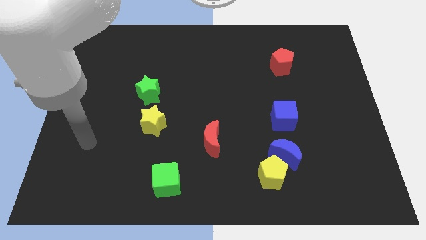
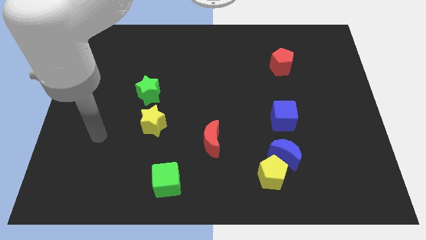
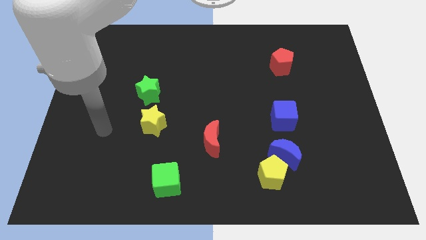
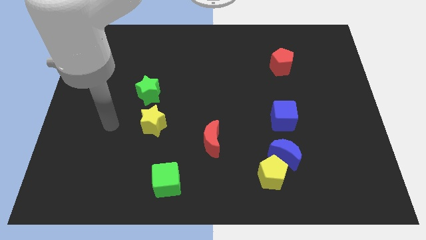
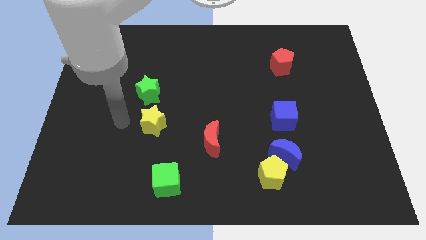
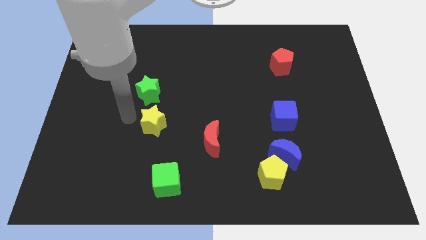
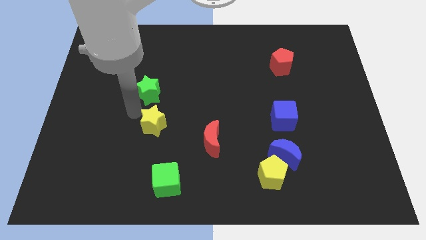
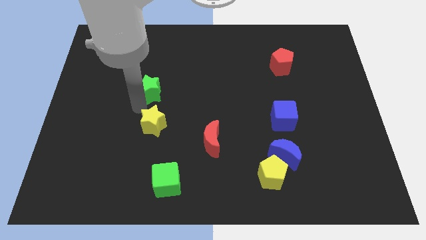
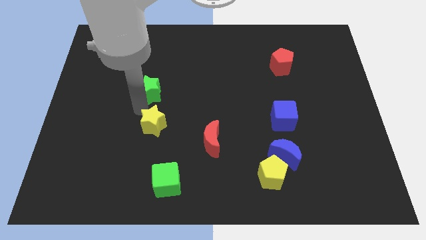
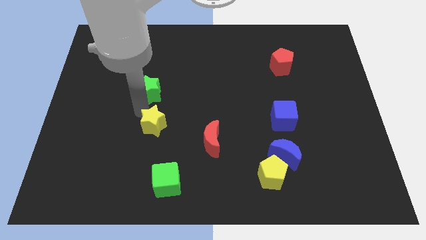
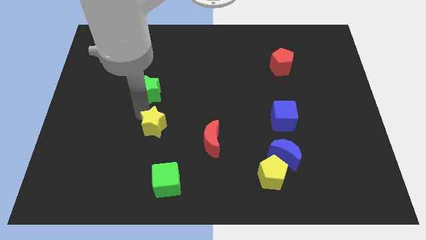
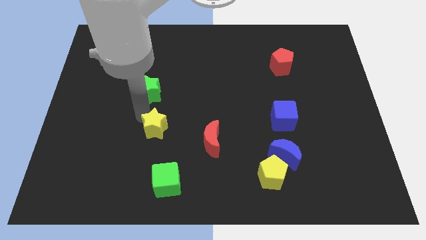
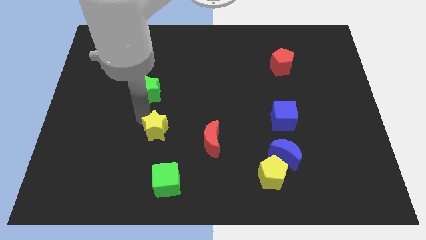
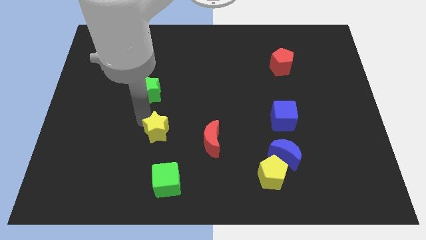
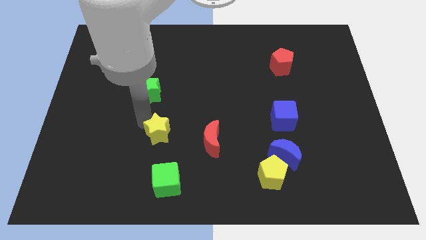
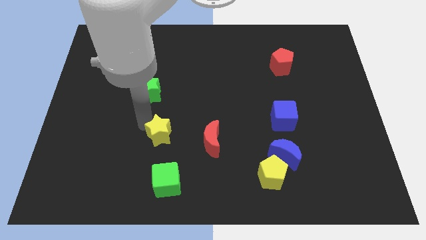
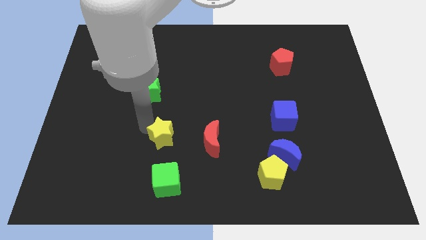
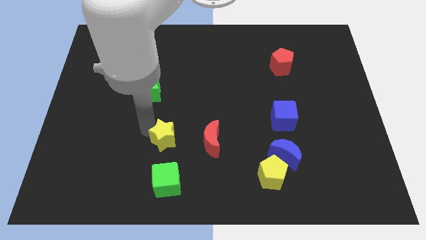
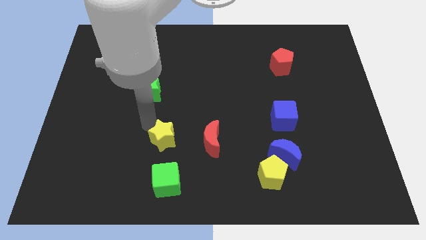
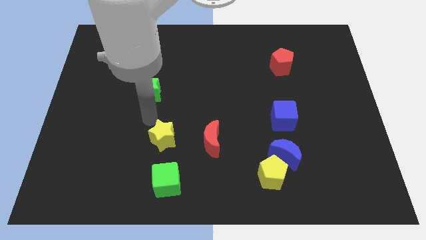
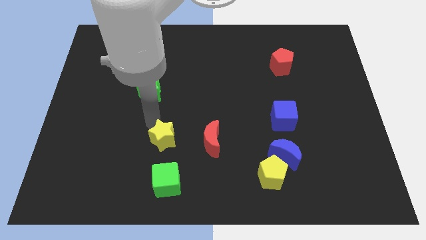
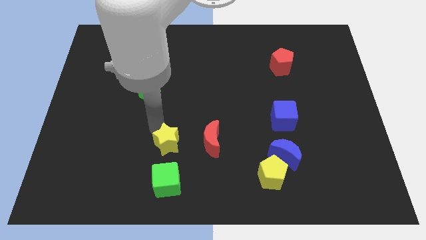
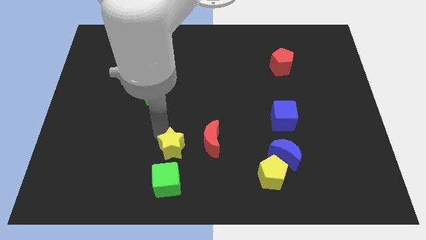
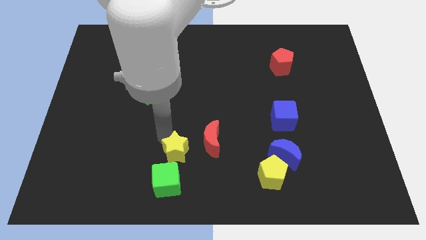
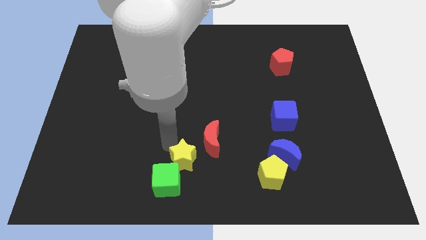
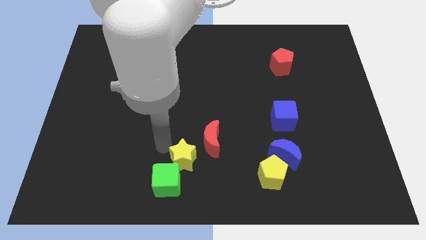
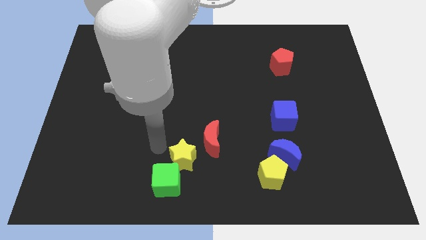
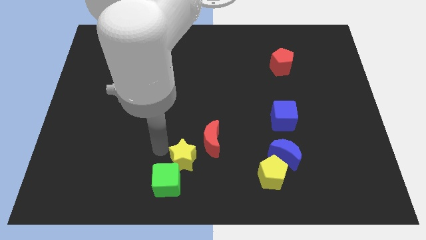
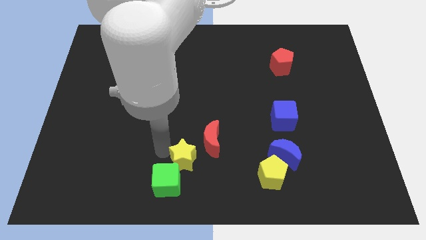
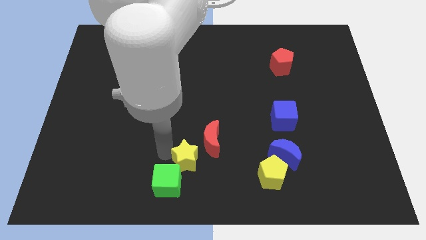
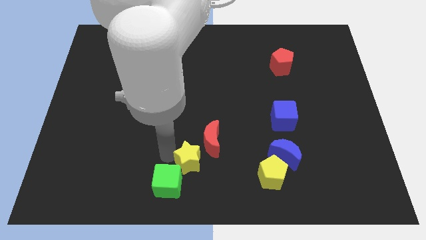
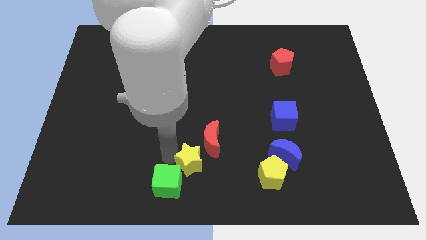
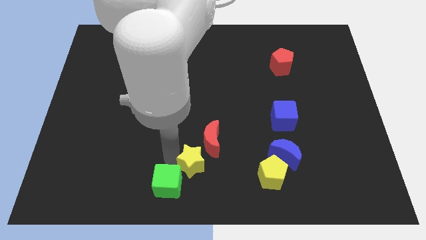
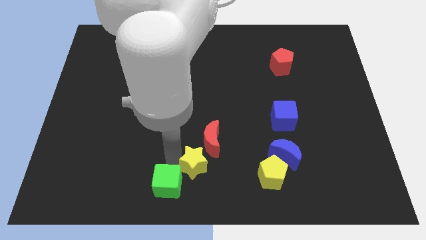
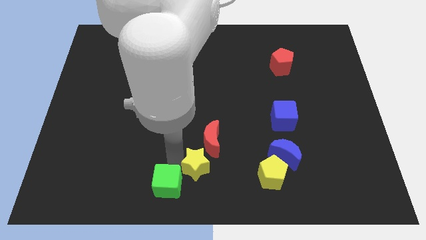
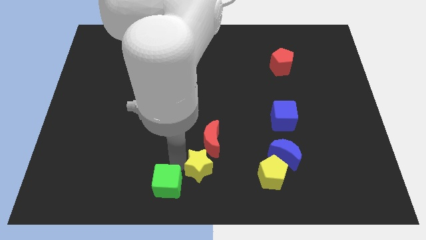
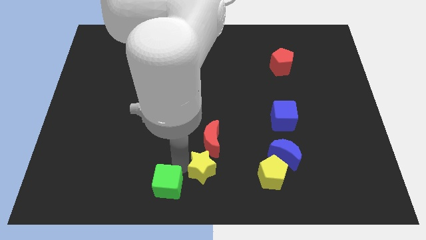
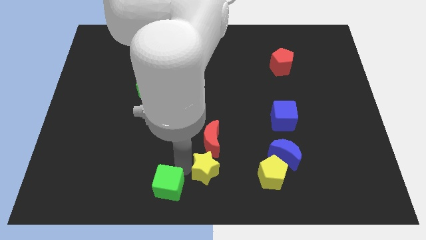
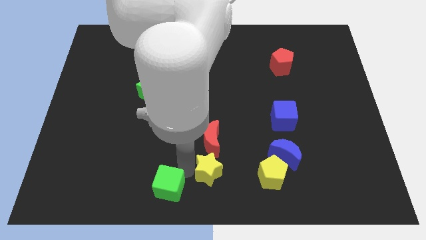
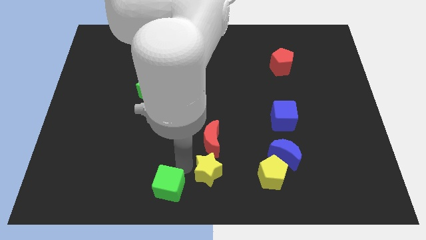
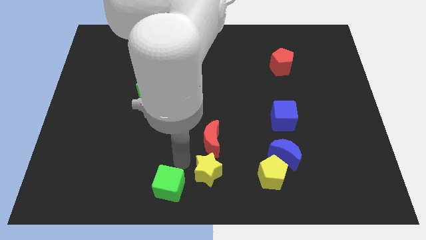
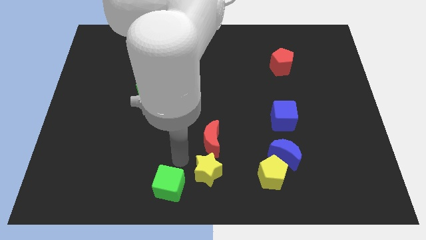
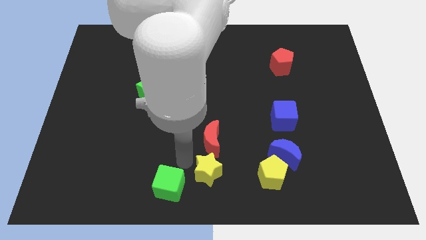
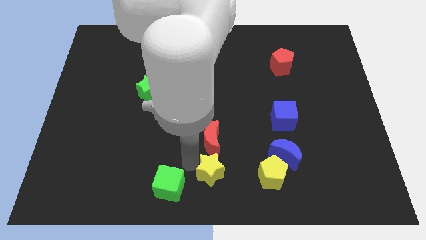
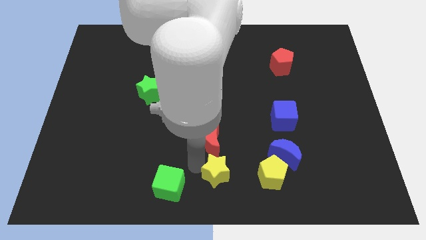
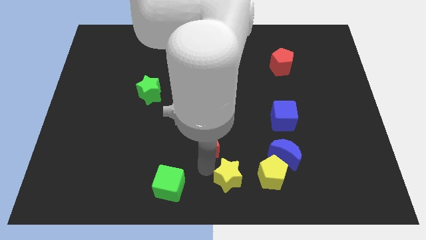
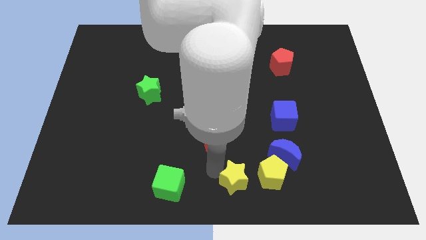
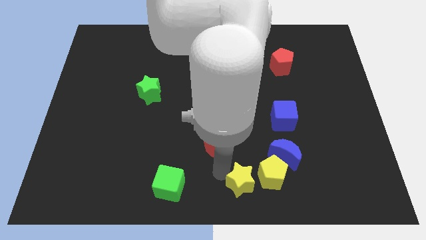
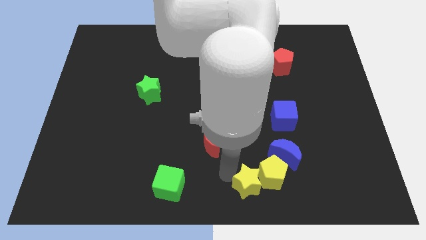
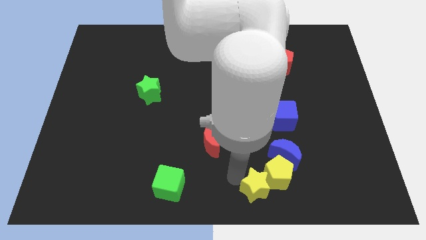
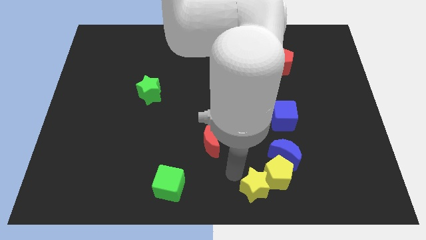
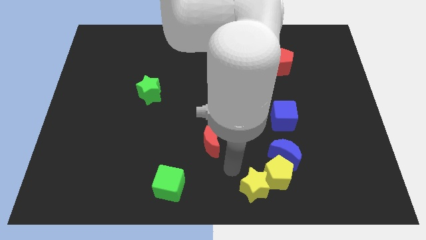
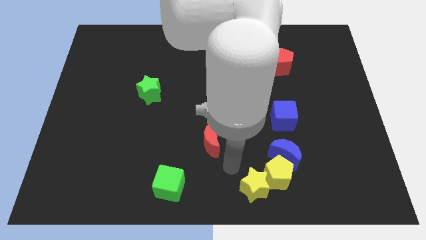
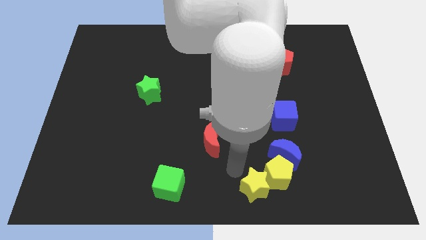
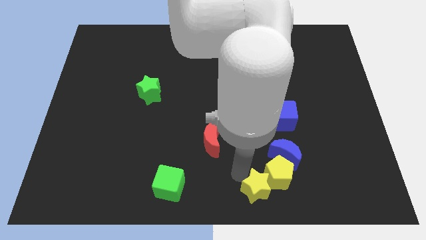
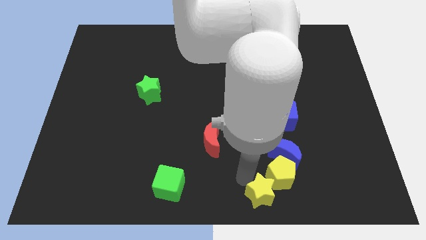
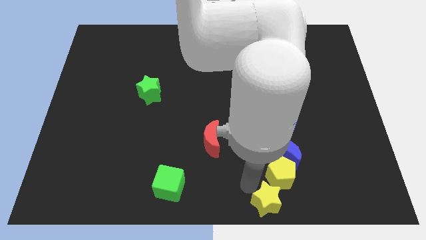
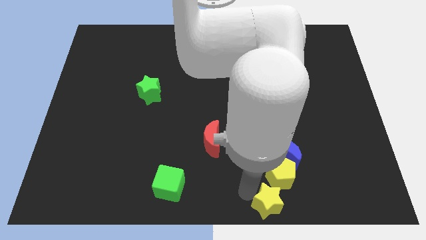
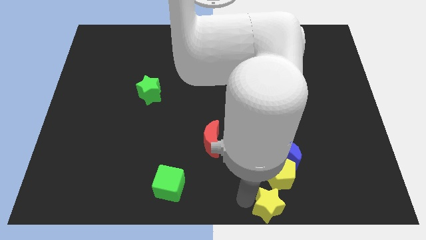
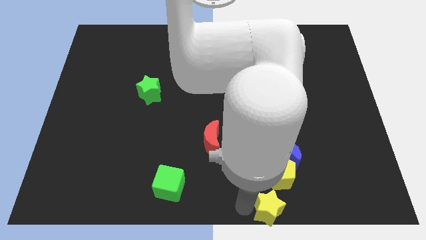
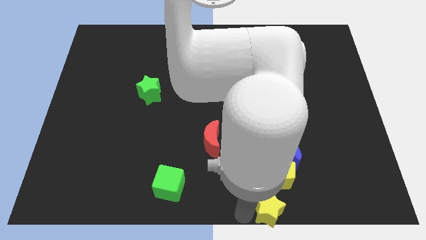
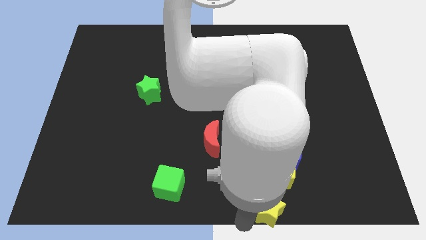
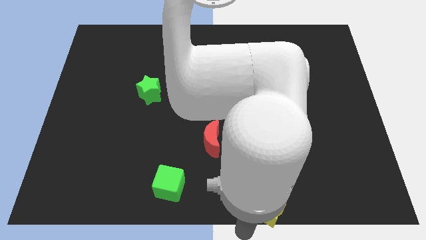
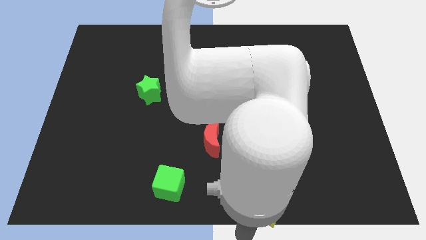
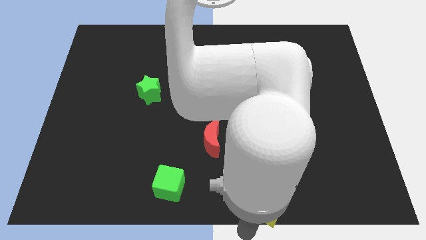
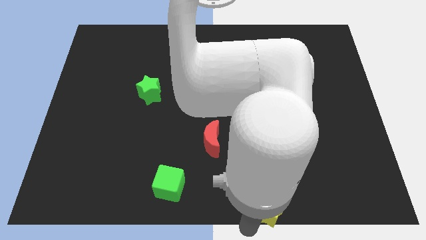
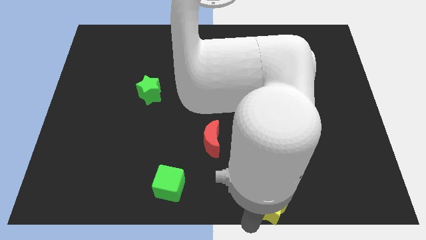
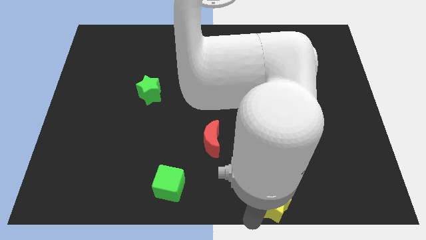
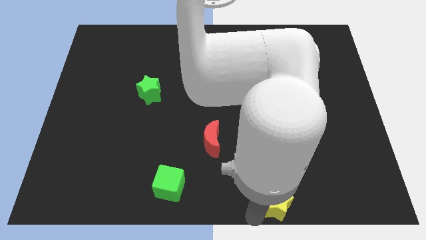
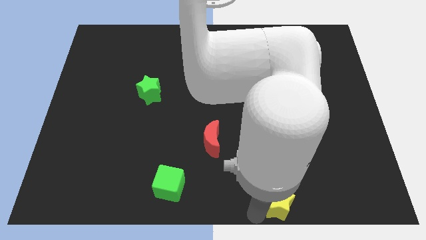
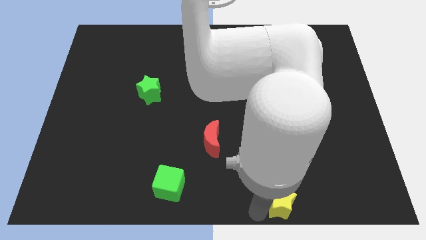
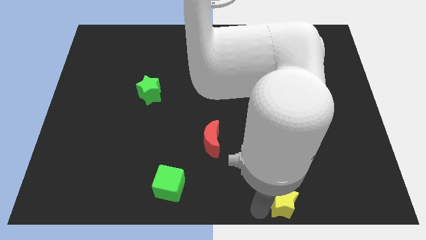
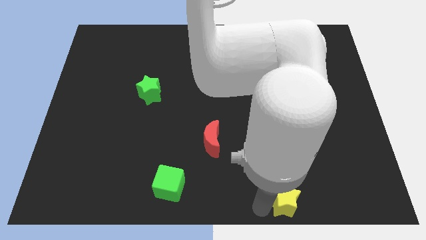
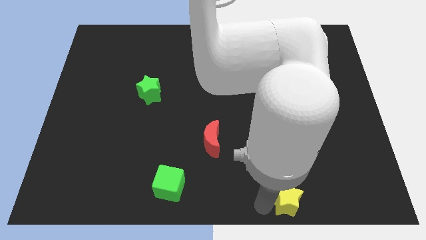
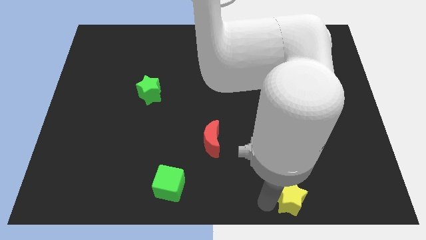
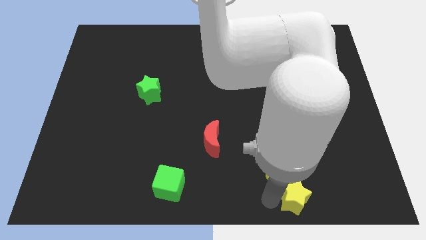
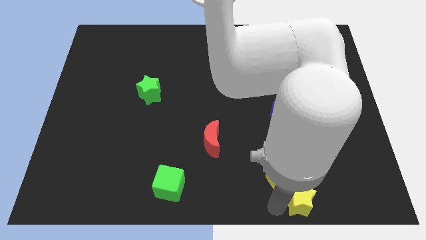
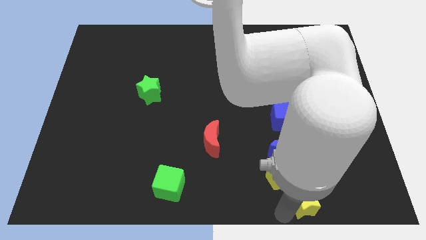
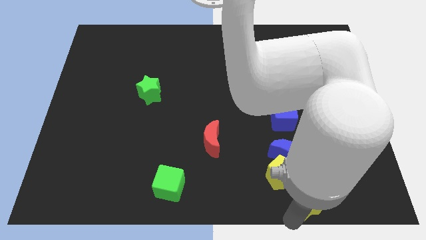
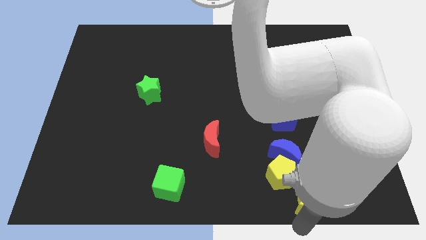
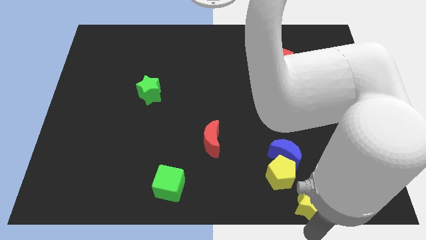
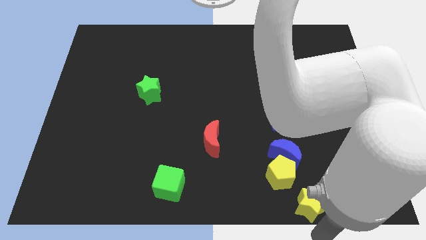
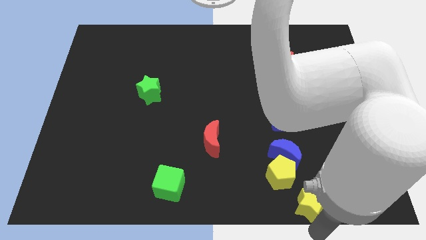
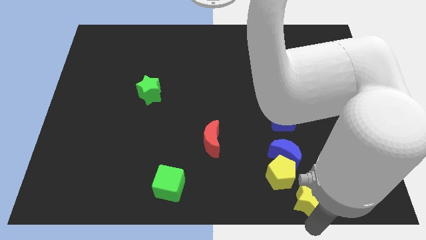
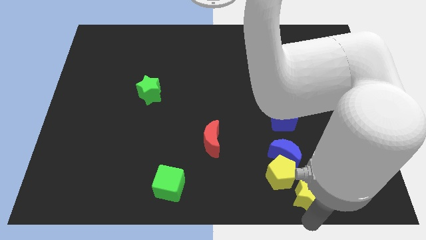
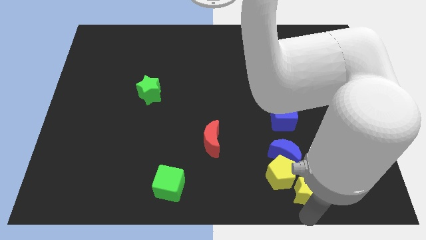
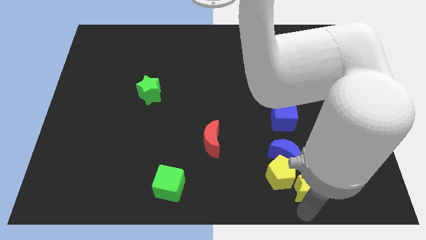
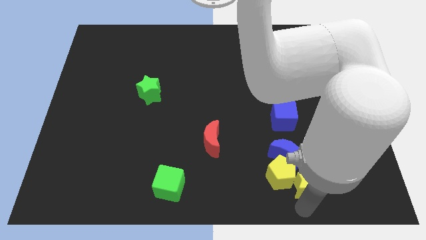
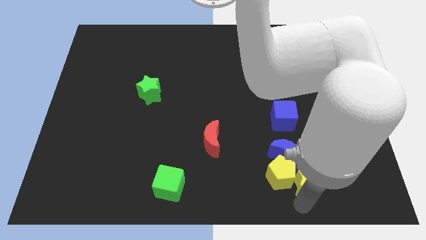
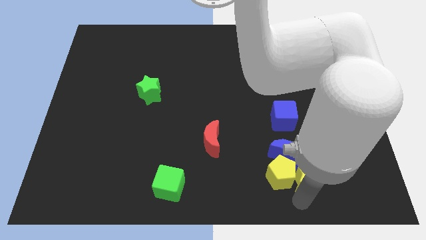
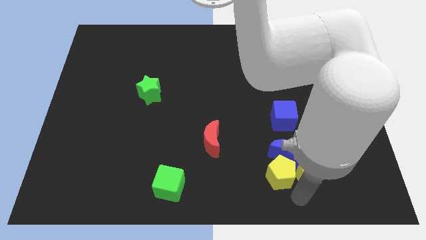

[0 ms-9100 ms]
push the yellow star to the bottom side of the blue cube
